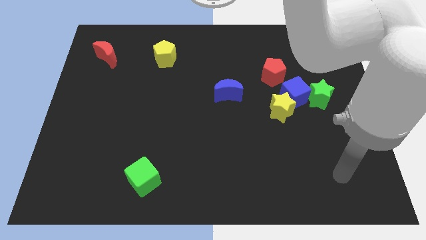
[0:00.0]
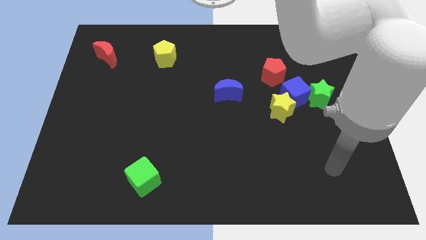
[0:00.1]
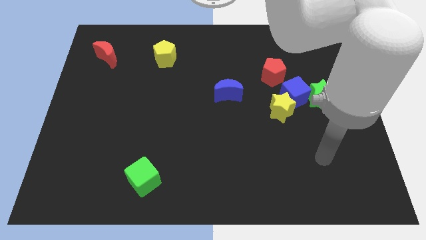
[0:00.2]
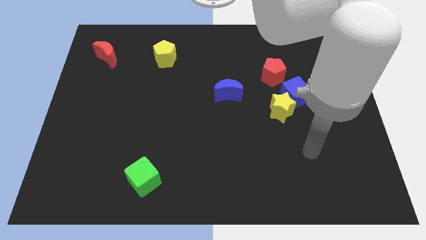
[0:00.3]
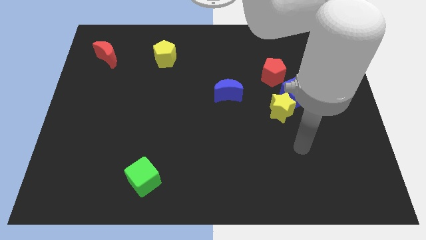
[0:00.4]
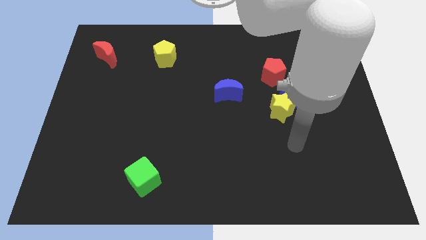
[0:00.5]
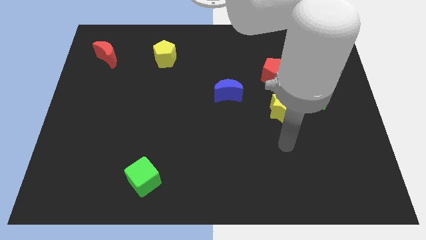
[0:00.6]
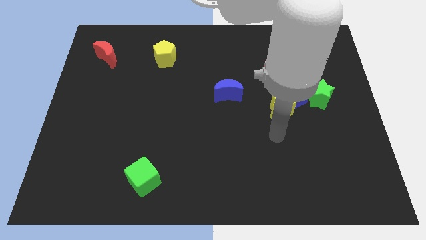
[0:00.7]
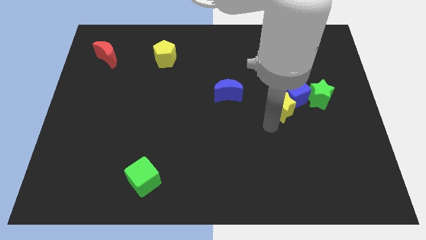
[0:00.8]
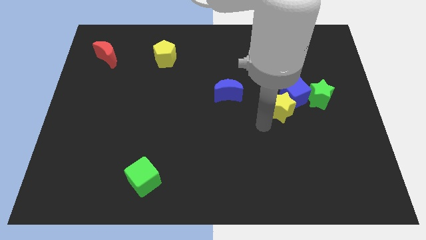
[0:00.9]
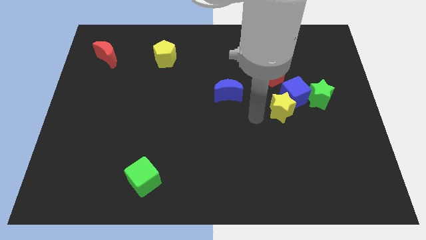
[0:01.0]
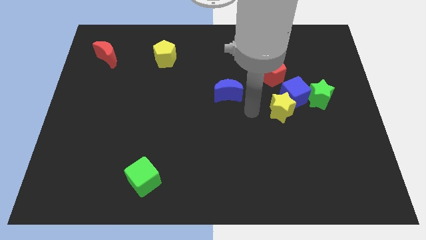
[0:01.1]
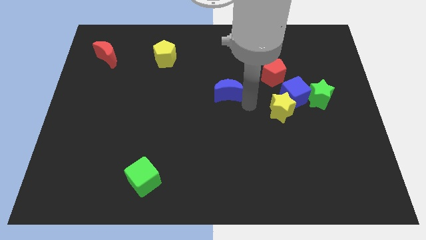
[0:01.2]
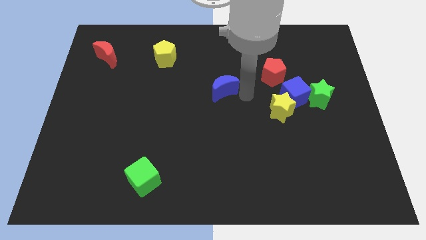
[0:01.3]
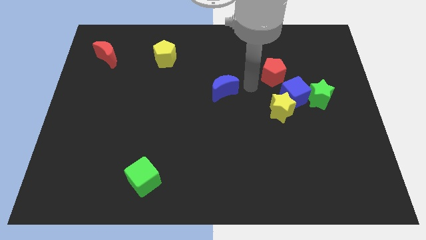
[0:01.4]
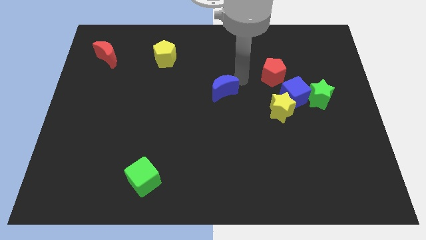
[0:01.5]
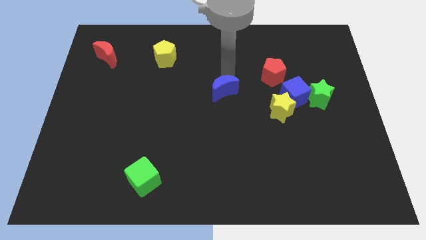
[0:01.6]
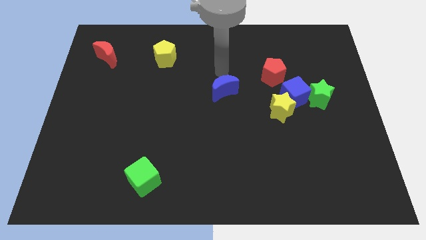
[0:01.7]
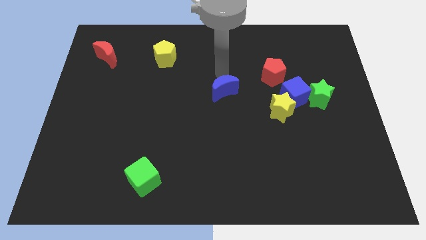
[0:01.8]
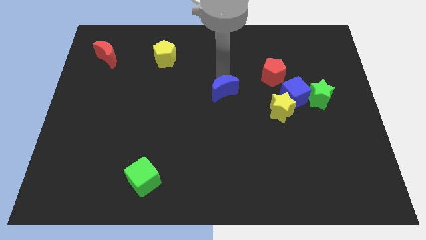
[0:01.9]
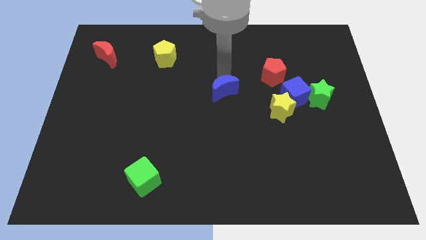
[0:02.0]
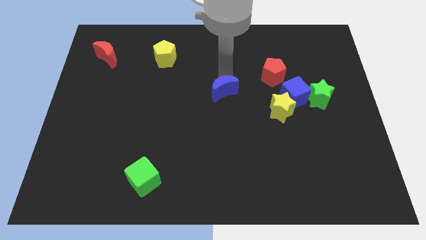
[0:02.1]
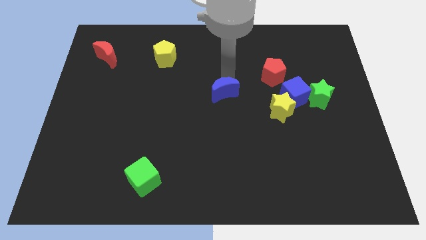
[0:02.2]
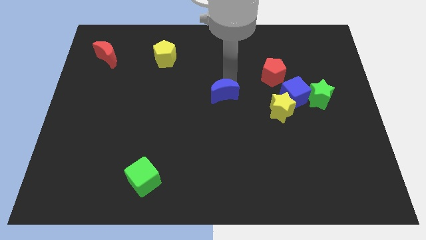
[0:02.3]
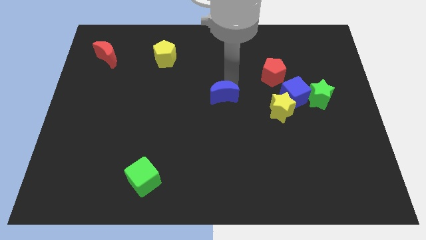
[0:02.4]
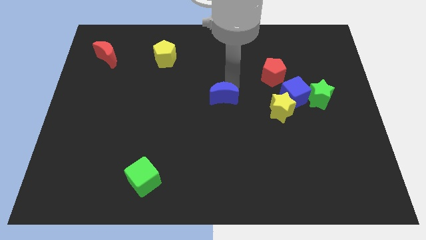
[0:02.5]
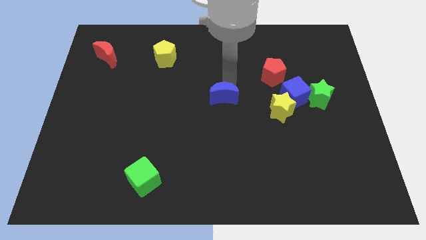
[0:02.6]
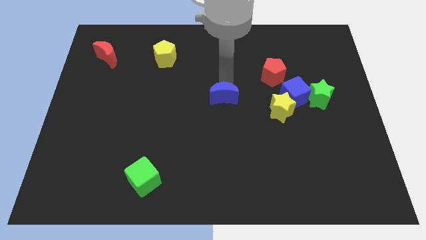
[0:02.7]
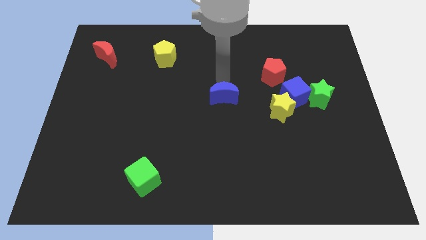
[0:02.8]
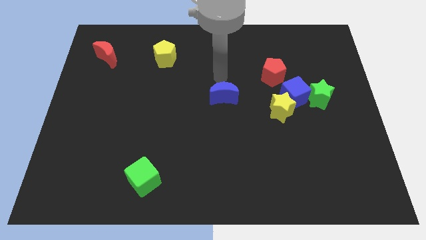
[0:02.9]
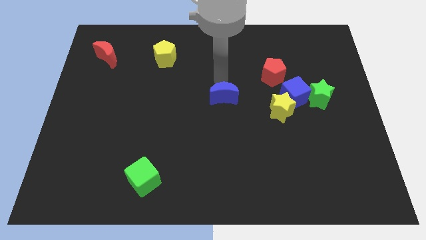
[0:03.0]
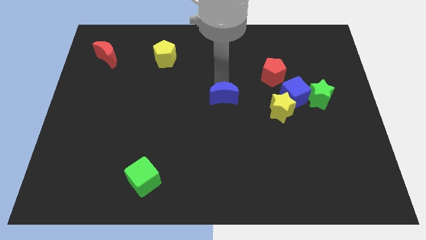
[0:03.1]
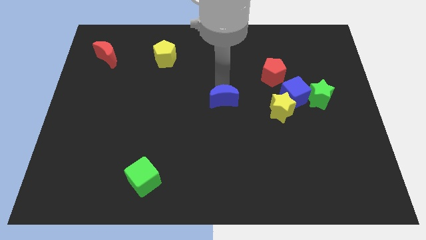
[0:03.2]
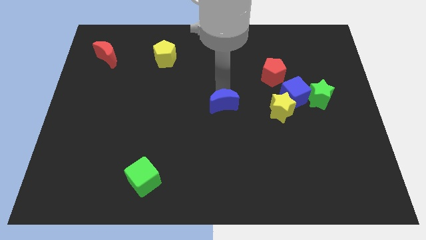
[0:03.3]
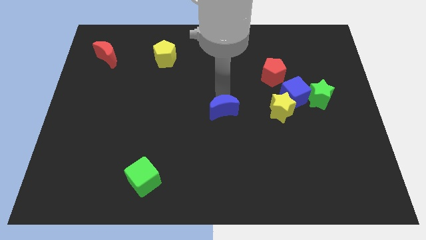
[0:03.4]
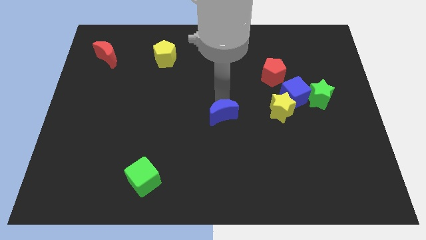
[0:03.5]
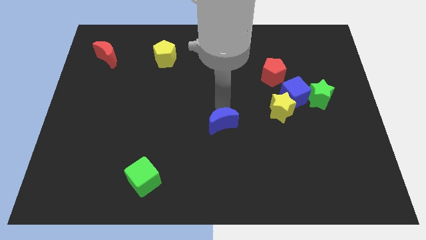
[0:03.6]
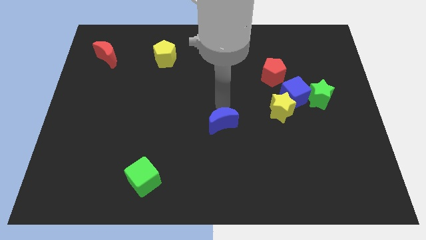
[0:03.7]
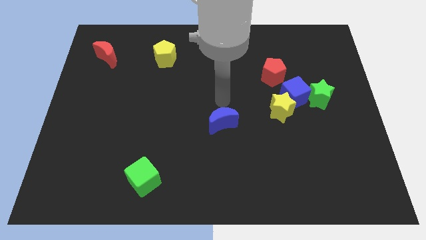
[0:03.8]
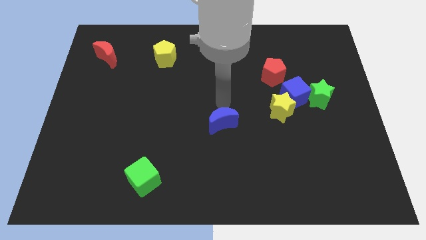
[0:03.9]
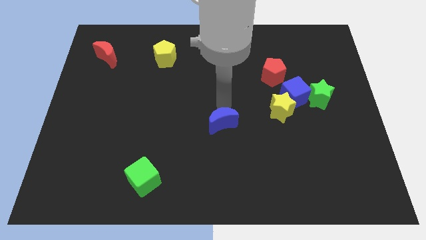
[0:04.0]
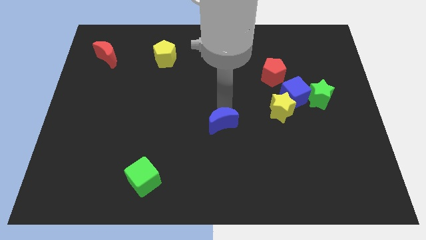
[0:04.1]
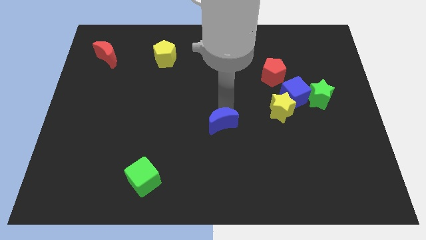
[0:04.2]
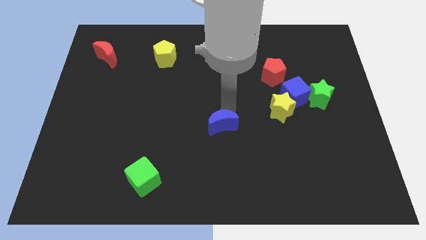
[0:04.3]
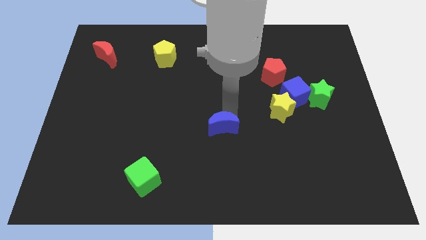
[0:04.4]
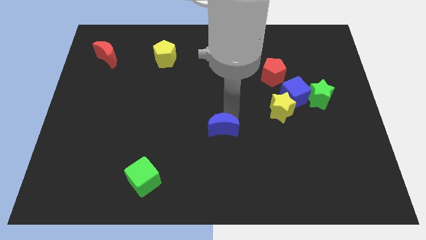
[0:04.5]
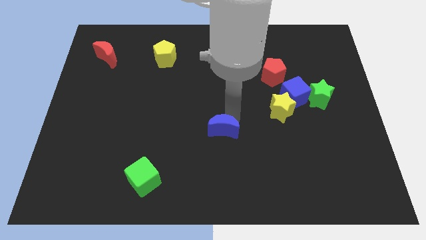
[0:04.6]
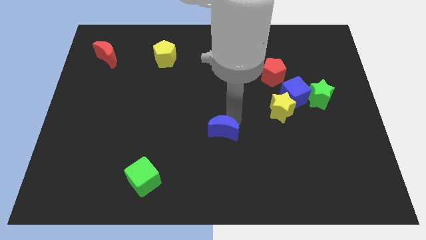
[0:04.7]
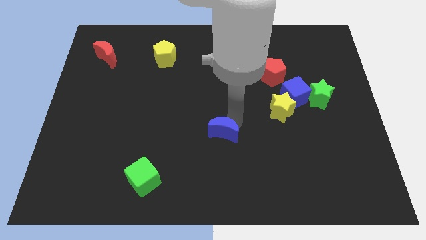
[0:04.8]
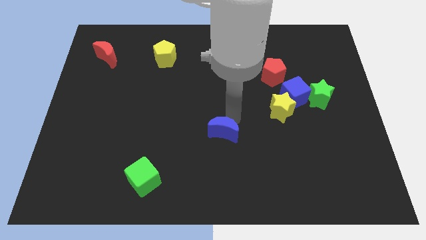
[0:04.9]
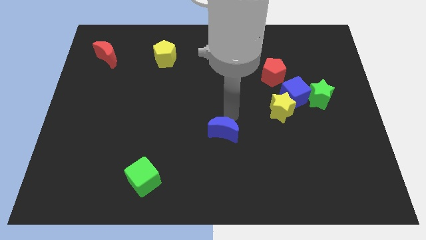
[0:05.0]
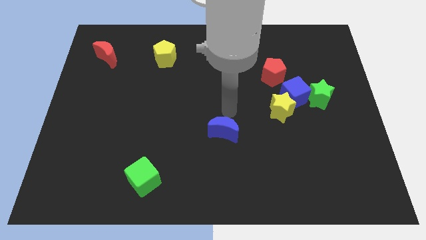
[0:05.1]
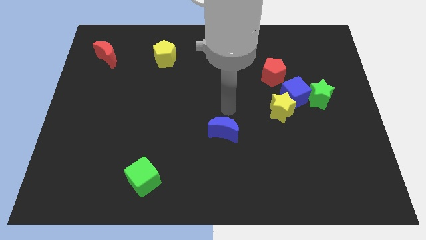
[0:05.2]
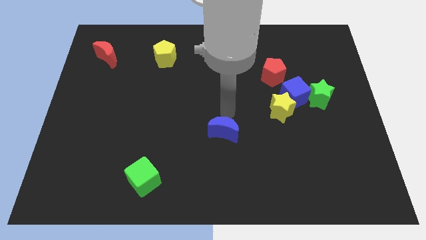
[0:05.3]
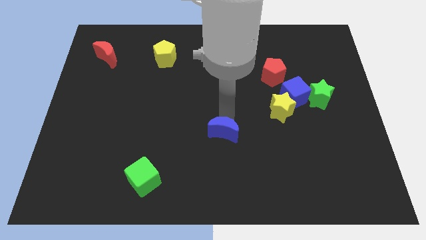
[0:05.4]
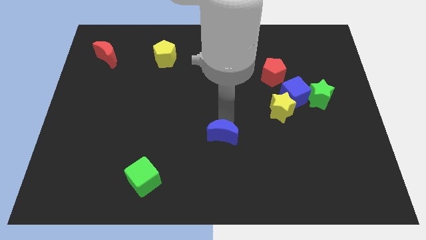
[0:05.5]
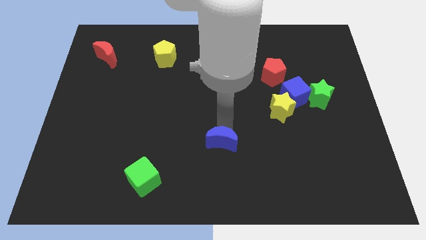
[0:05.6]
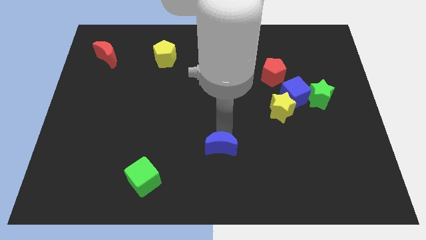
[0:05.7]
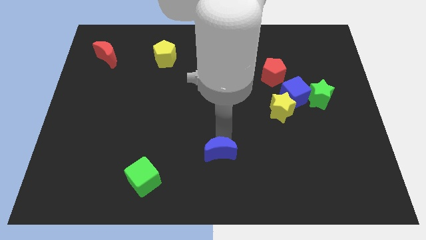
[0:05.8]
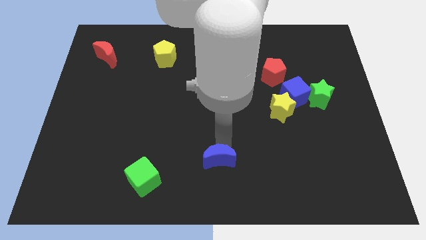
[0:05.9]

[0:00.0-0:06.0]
put the blue moon to the bottom side
